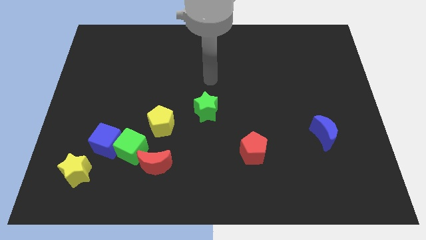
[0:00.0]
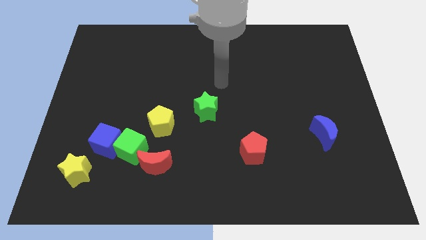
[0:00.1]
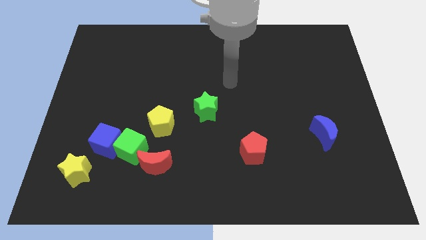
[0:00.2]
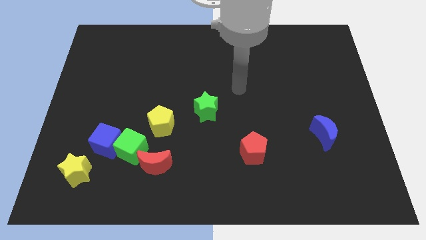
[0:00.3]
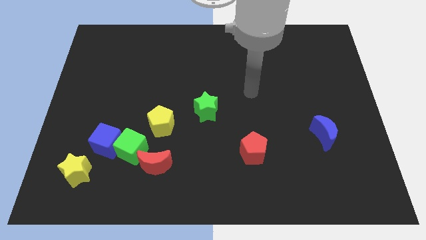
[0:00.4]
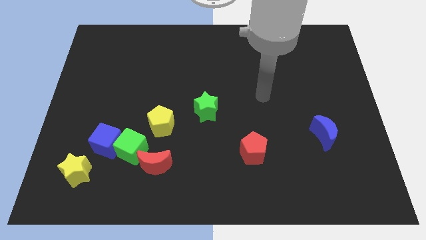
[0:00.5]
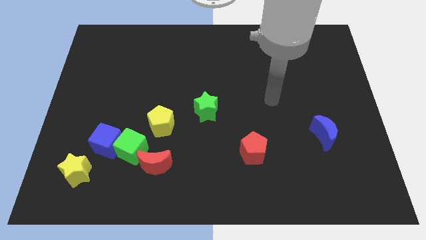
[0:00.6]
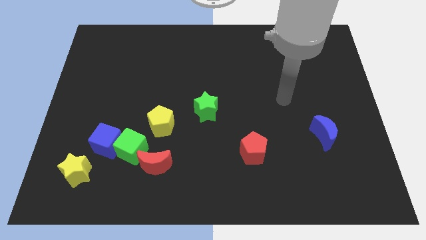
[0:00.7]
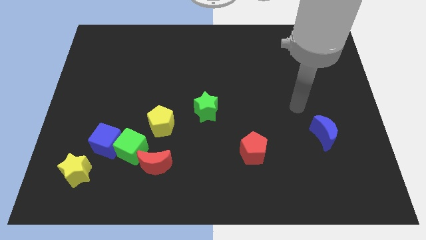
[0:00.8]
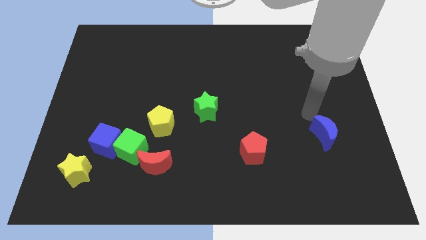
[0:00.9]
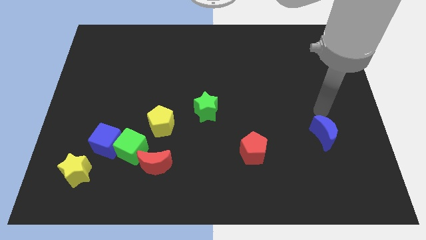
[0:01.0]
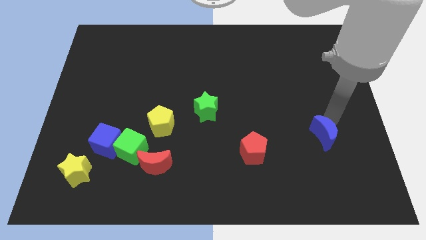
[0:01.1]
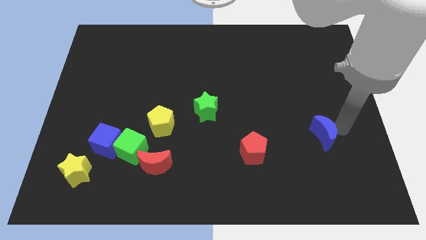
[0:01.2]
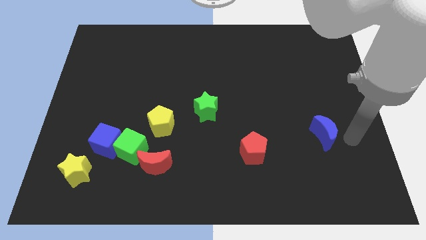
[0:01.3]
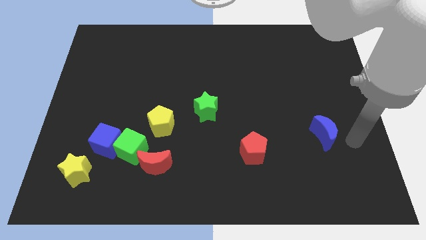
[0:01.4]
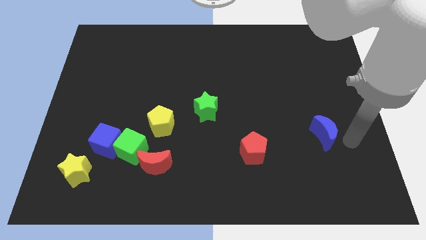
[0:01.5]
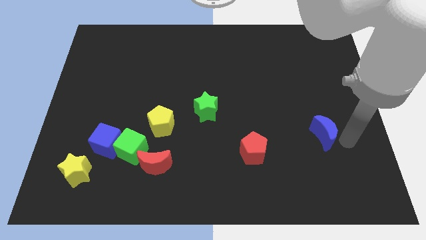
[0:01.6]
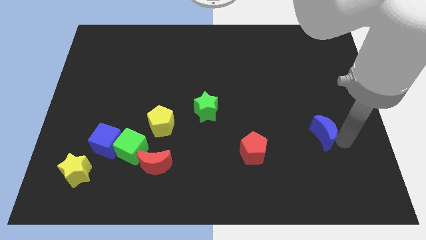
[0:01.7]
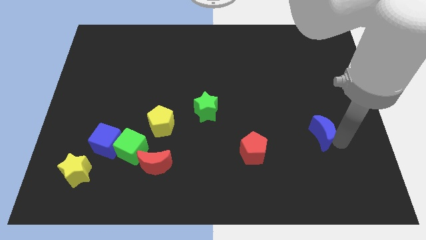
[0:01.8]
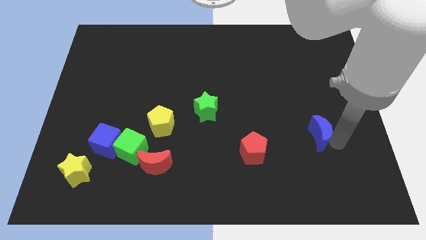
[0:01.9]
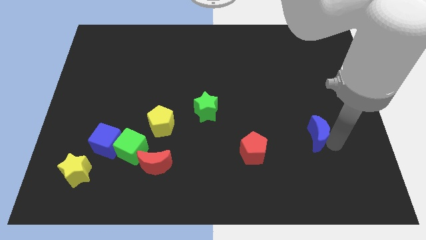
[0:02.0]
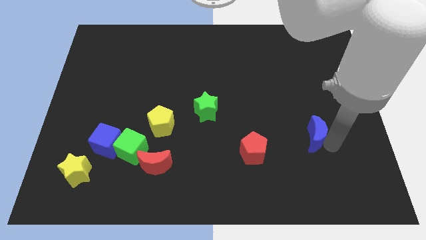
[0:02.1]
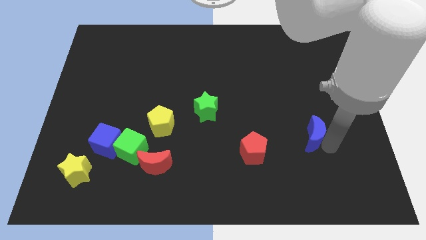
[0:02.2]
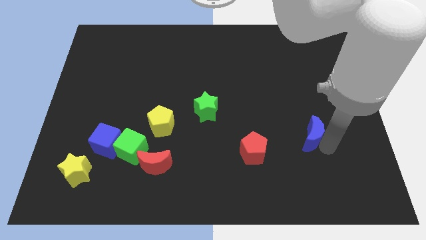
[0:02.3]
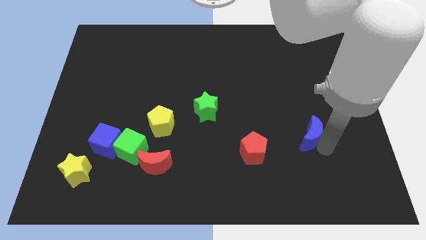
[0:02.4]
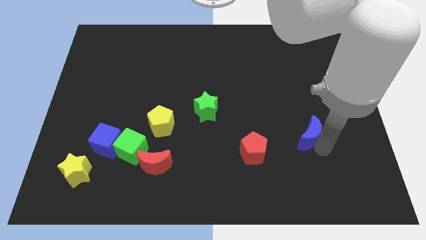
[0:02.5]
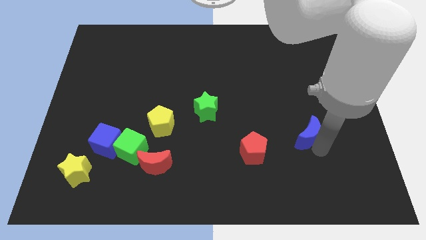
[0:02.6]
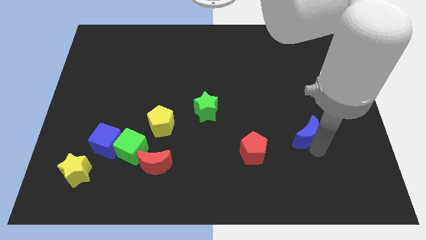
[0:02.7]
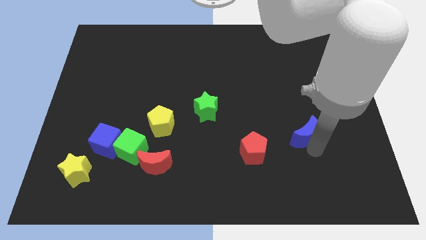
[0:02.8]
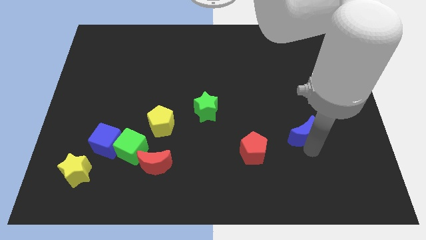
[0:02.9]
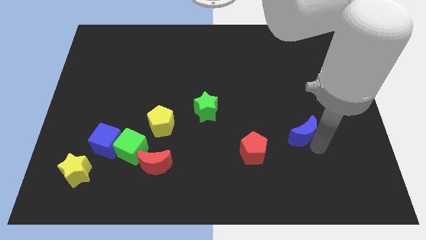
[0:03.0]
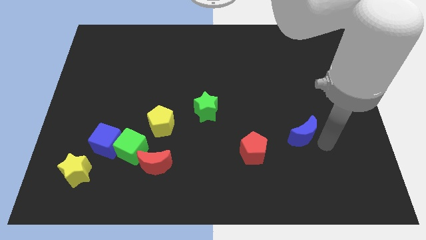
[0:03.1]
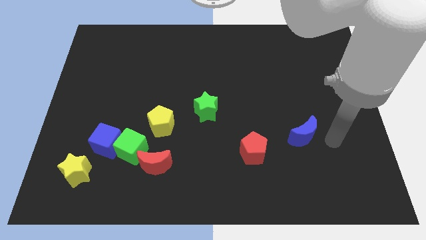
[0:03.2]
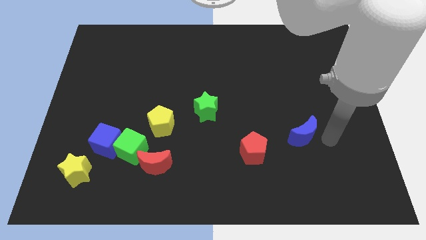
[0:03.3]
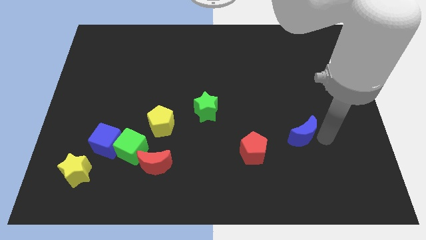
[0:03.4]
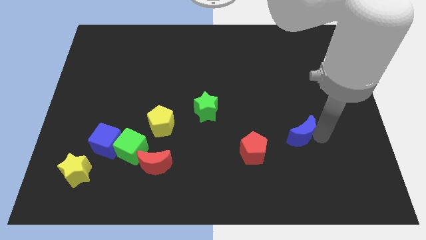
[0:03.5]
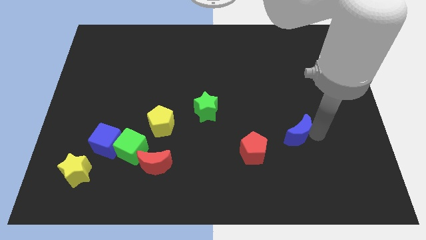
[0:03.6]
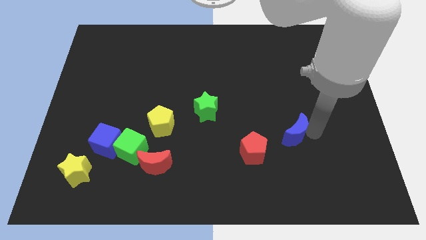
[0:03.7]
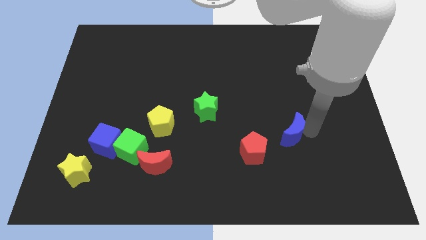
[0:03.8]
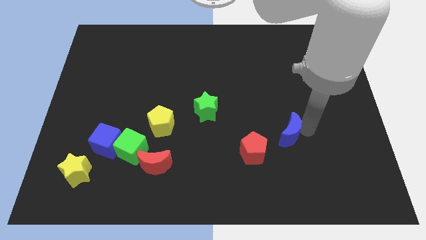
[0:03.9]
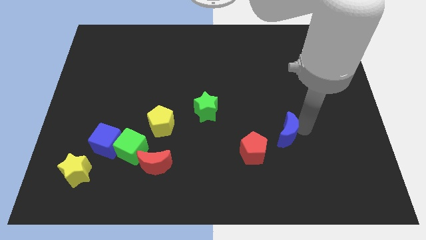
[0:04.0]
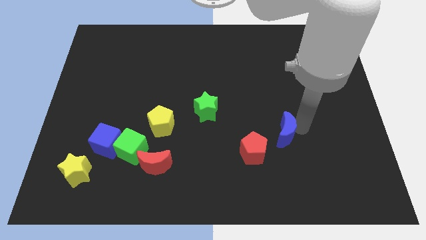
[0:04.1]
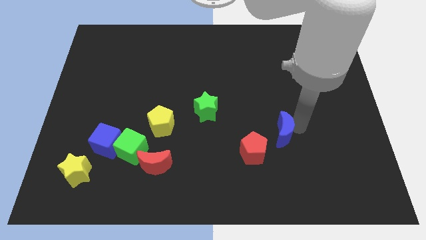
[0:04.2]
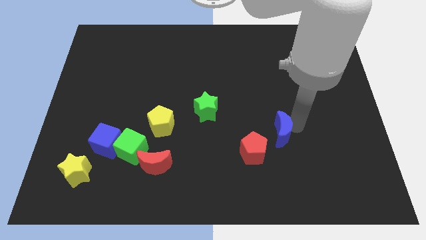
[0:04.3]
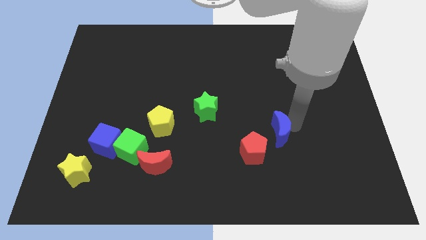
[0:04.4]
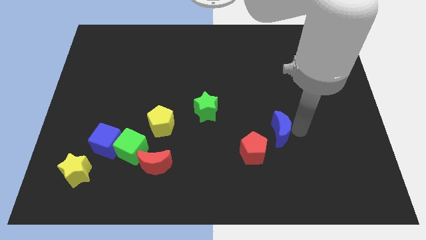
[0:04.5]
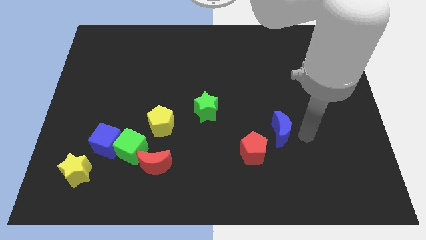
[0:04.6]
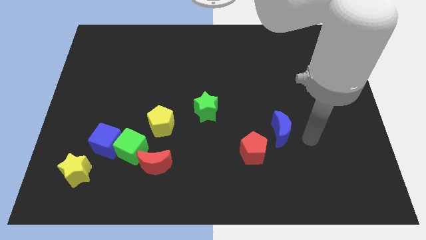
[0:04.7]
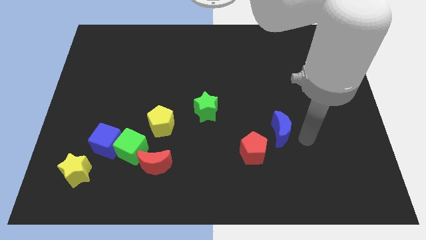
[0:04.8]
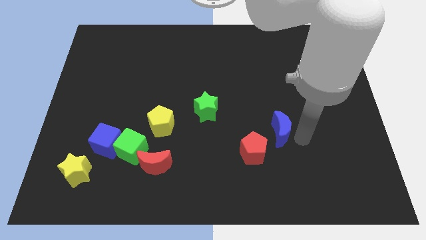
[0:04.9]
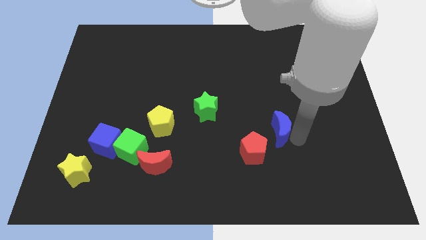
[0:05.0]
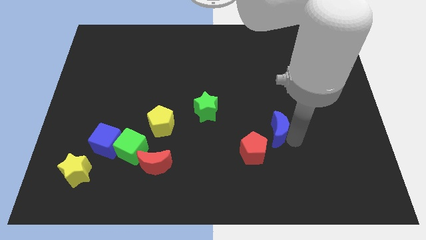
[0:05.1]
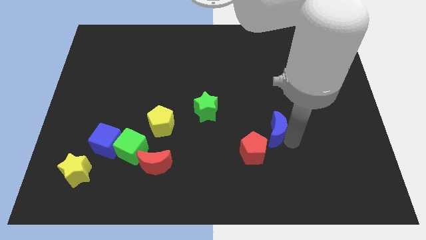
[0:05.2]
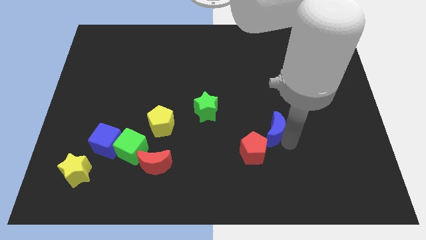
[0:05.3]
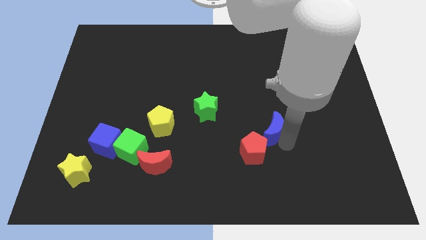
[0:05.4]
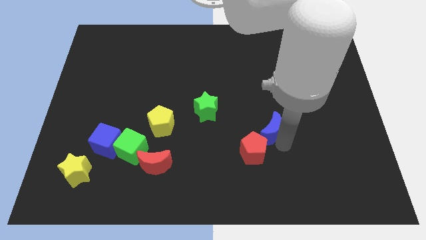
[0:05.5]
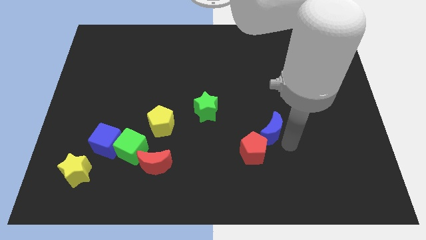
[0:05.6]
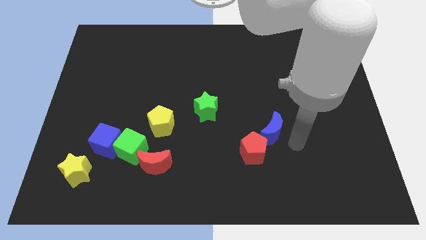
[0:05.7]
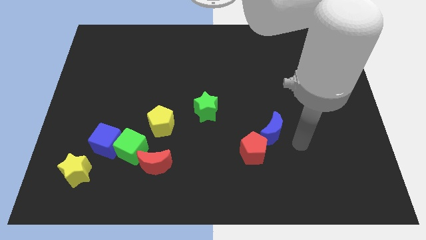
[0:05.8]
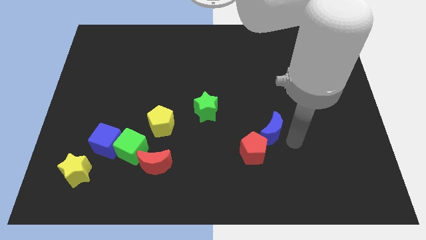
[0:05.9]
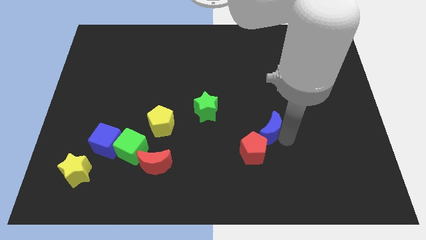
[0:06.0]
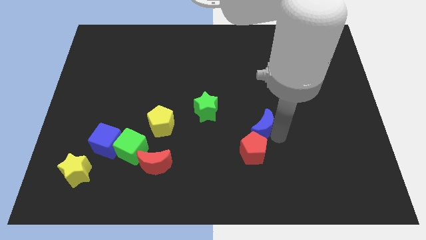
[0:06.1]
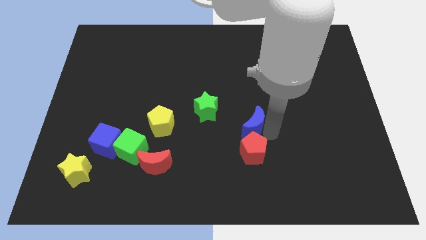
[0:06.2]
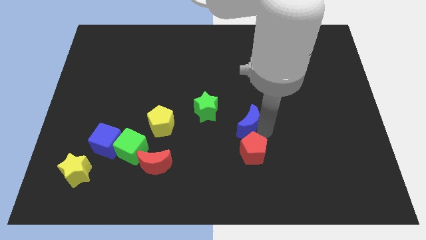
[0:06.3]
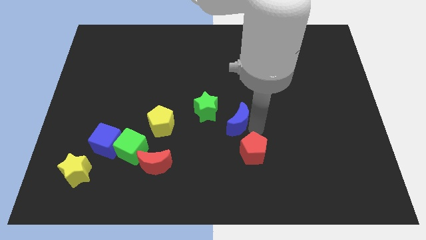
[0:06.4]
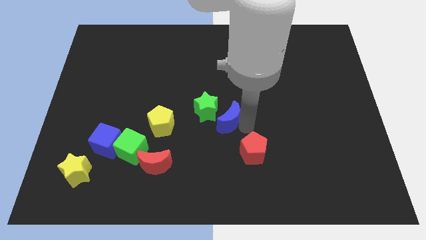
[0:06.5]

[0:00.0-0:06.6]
push the blue moon next to the green star
